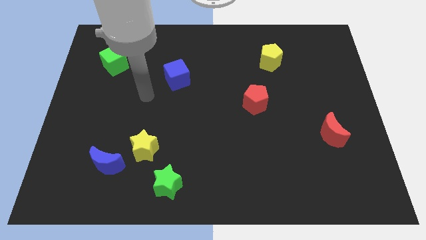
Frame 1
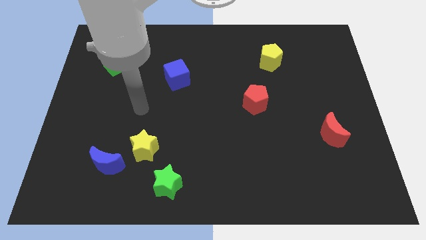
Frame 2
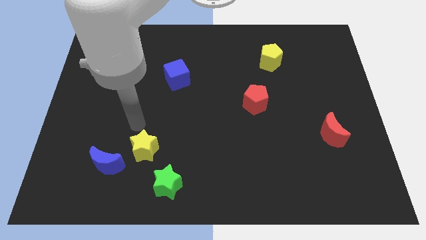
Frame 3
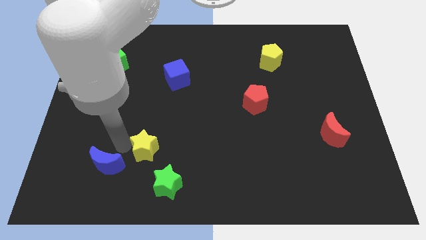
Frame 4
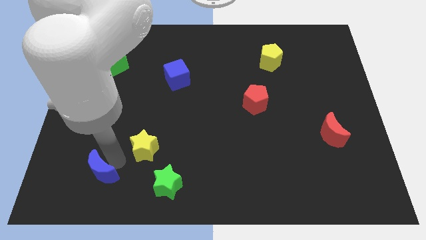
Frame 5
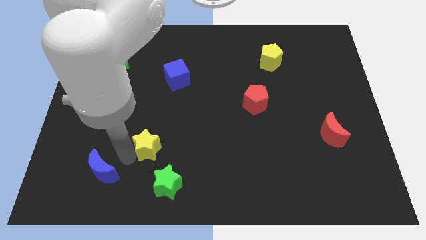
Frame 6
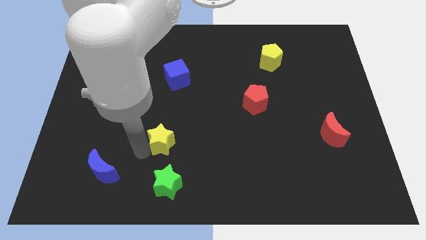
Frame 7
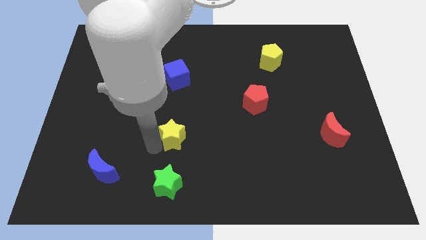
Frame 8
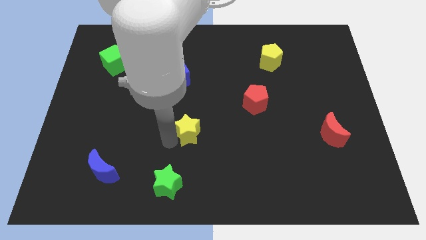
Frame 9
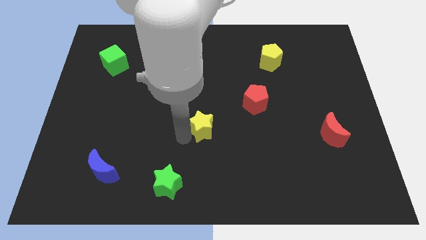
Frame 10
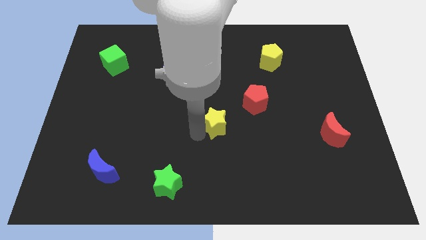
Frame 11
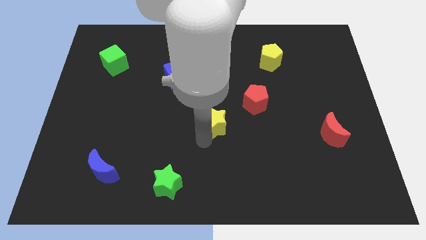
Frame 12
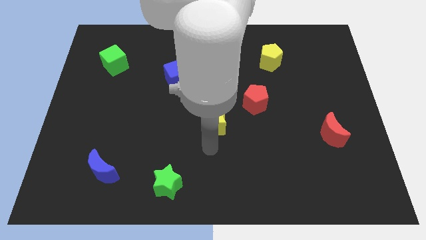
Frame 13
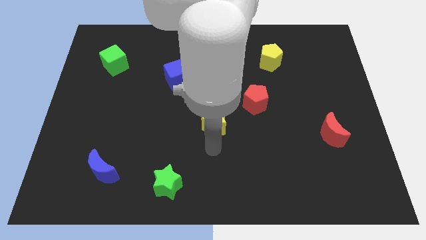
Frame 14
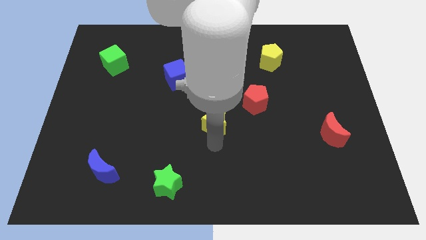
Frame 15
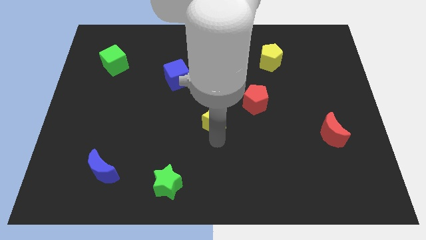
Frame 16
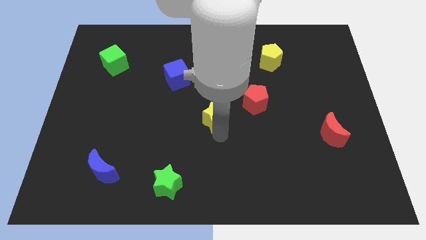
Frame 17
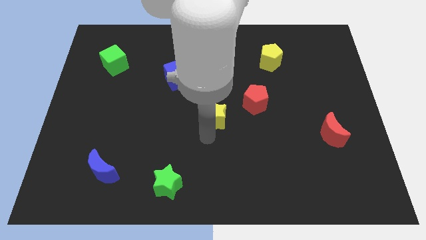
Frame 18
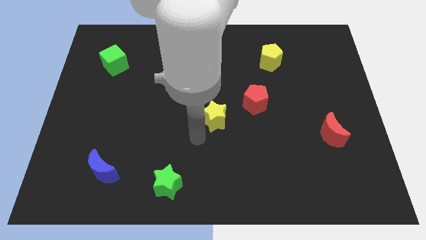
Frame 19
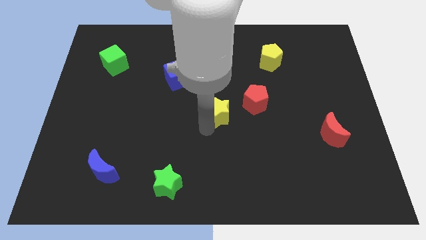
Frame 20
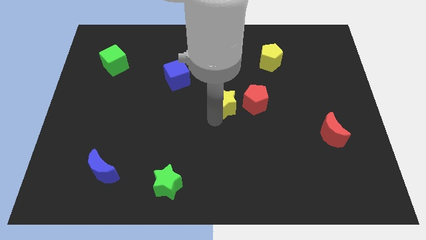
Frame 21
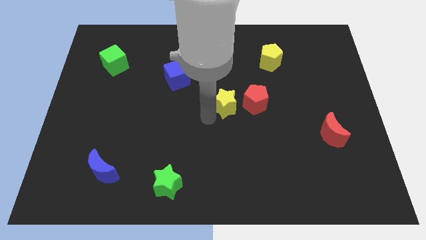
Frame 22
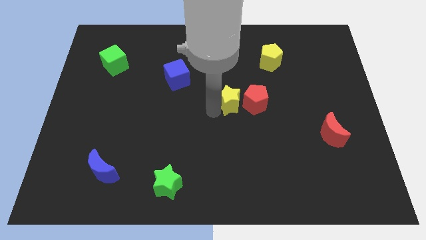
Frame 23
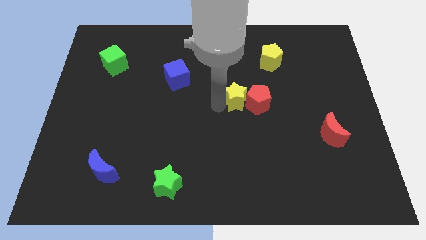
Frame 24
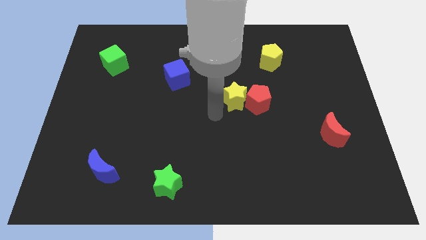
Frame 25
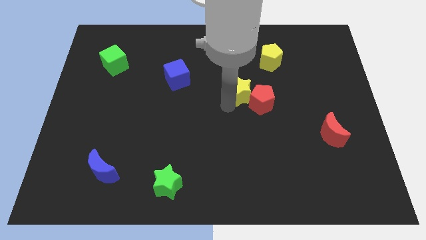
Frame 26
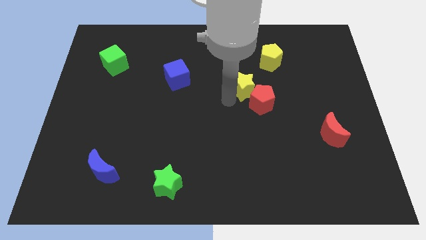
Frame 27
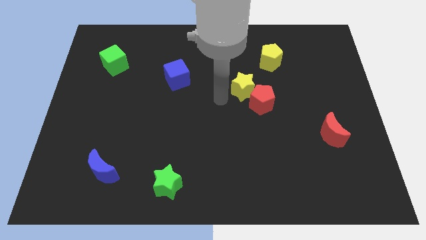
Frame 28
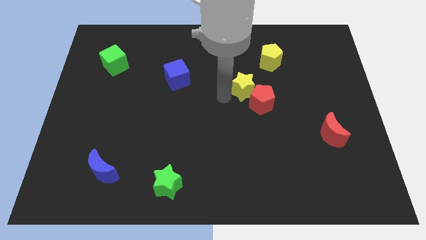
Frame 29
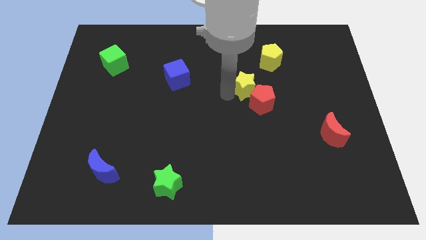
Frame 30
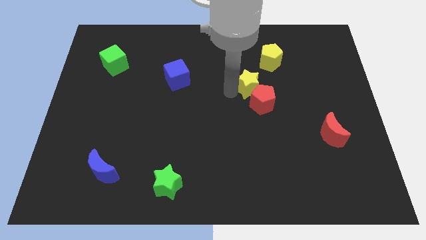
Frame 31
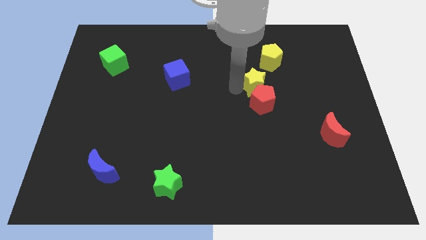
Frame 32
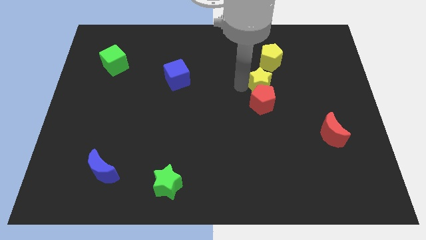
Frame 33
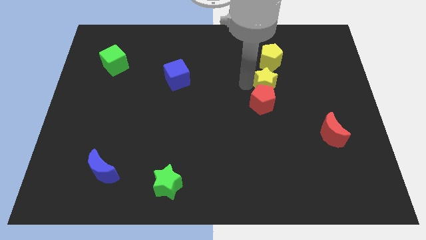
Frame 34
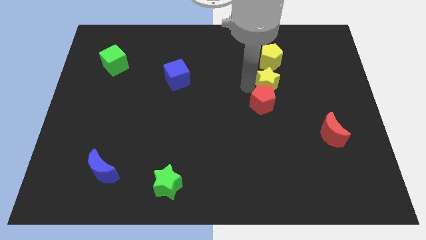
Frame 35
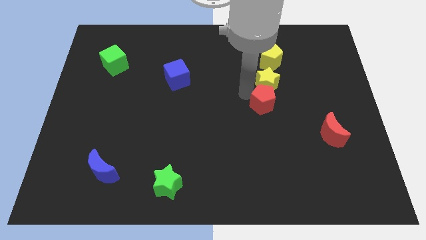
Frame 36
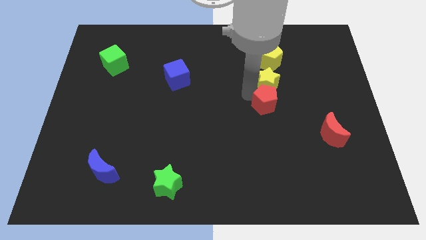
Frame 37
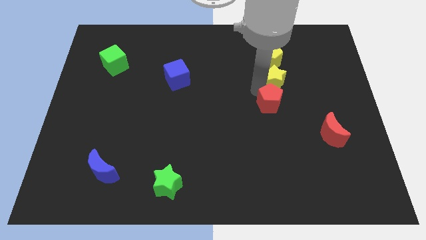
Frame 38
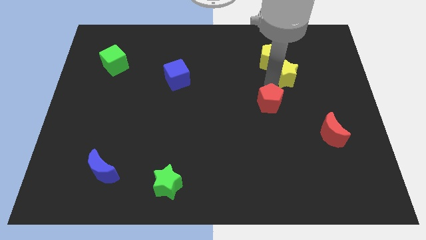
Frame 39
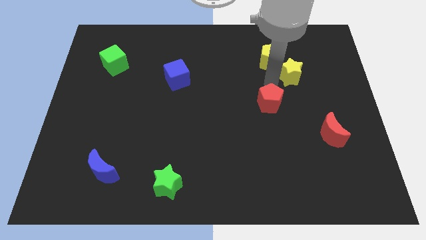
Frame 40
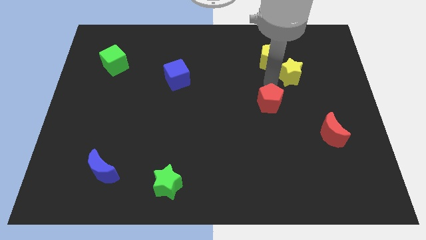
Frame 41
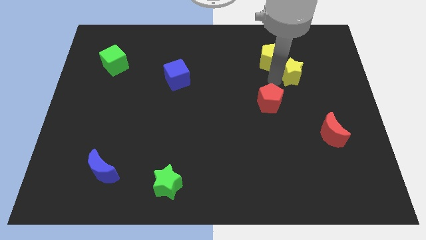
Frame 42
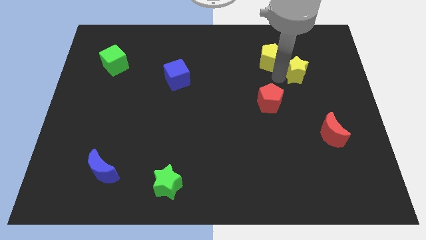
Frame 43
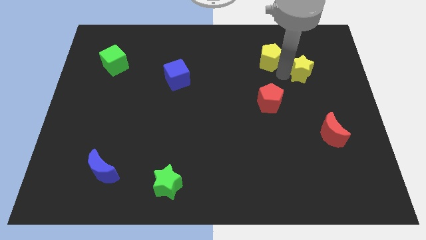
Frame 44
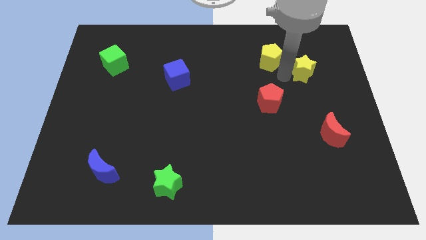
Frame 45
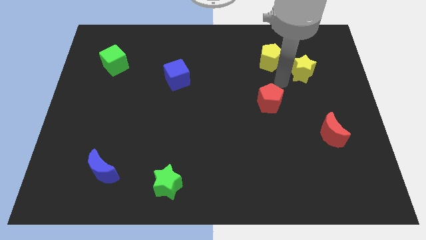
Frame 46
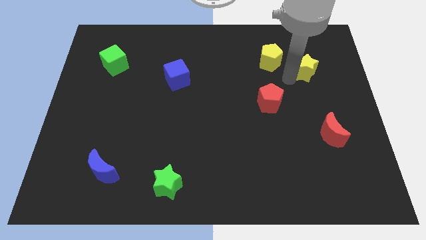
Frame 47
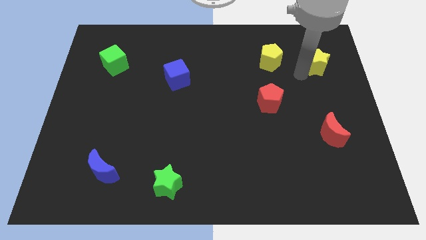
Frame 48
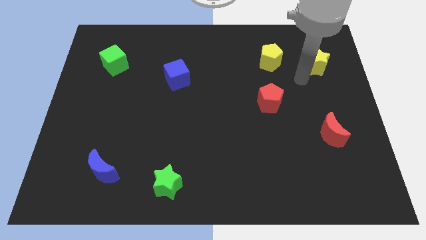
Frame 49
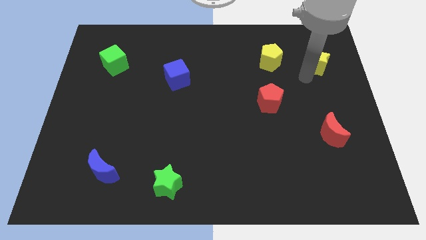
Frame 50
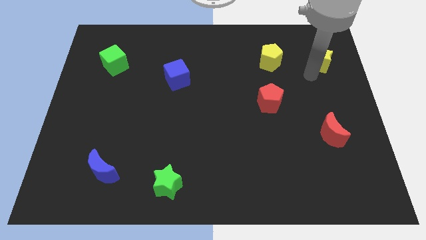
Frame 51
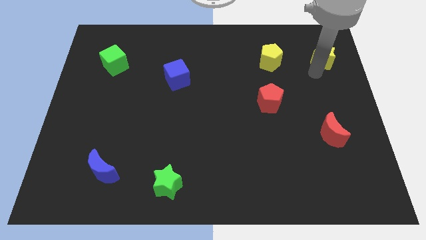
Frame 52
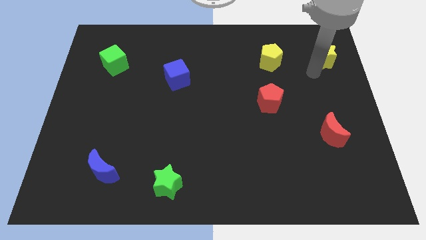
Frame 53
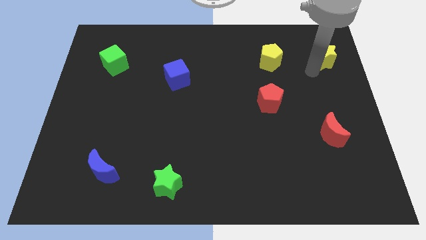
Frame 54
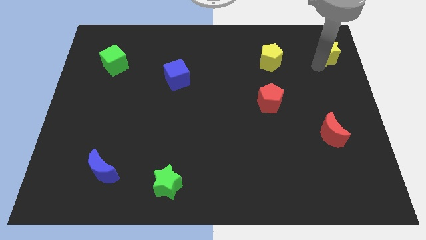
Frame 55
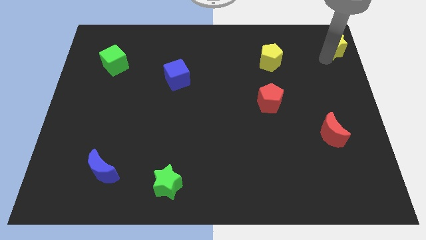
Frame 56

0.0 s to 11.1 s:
put the yellow star to the top right
